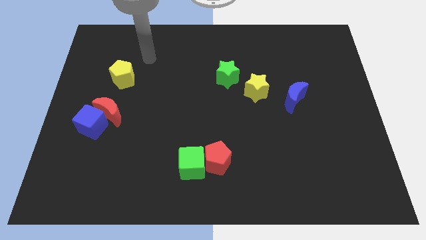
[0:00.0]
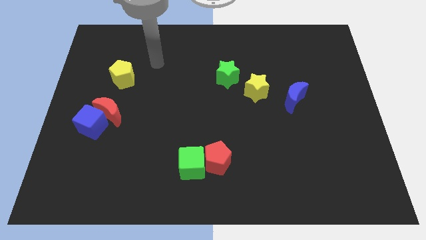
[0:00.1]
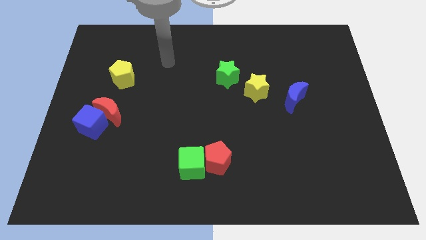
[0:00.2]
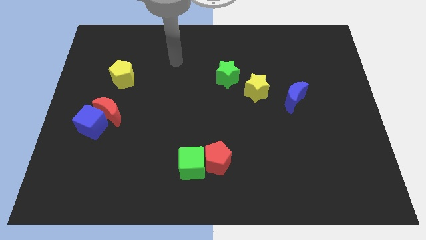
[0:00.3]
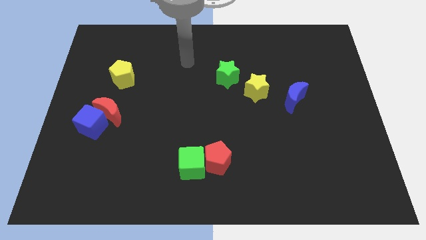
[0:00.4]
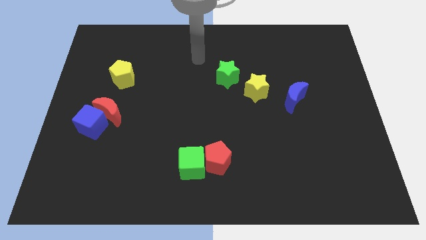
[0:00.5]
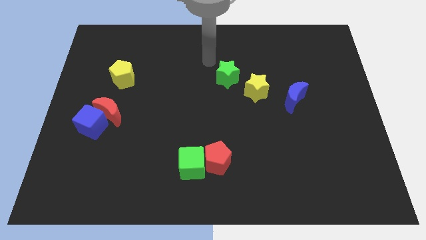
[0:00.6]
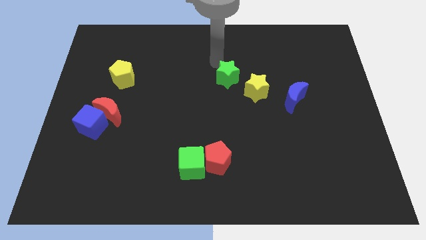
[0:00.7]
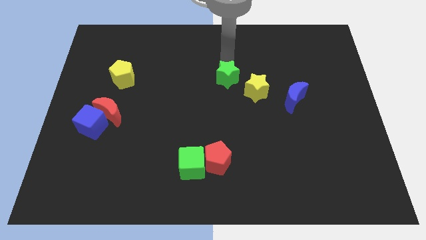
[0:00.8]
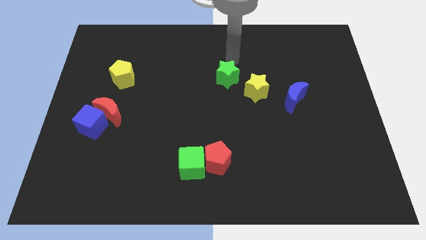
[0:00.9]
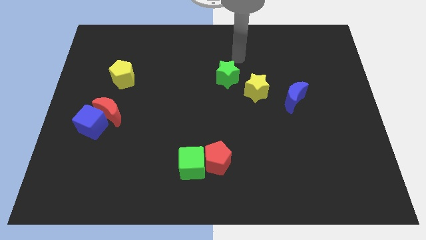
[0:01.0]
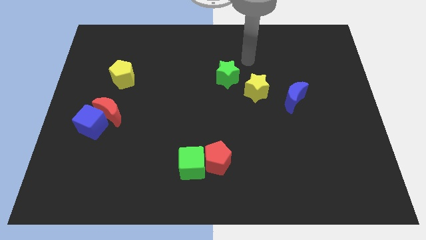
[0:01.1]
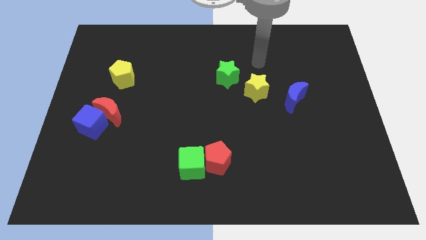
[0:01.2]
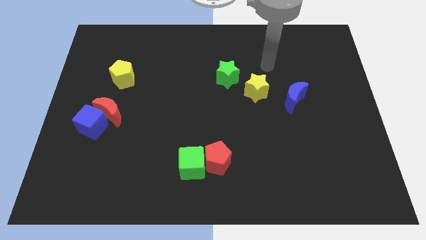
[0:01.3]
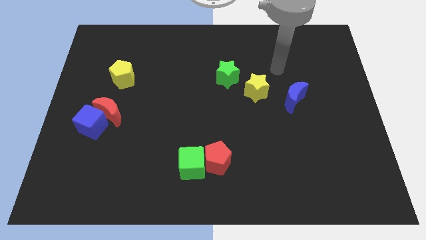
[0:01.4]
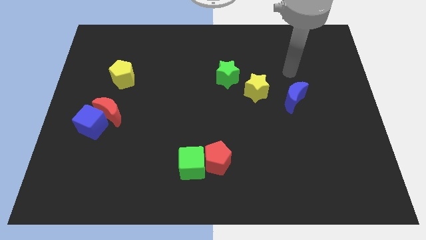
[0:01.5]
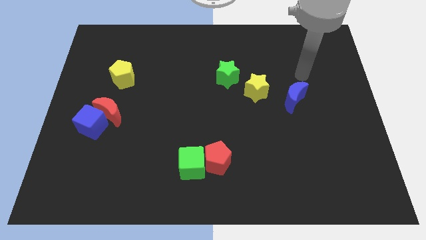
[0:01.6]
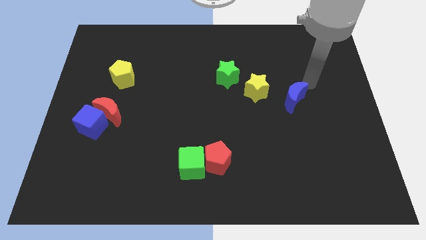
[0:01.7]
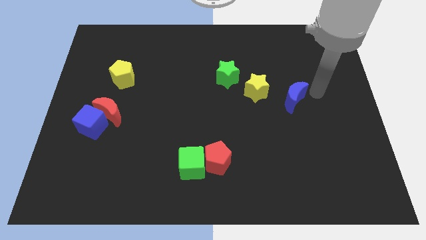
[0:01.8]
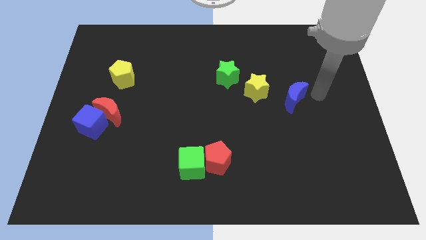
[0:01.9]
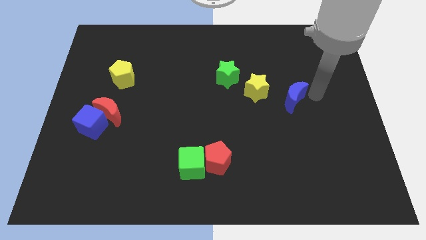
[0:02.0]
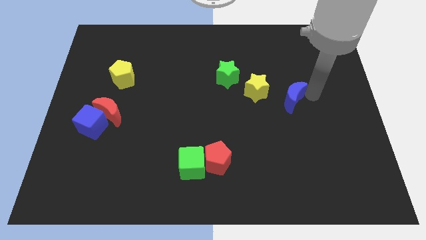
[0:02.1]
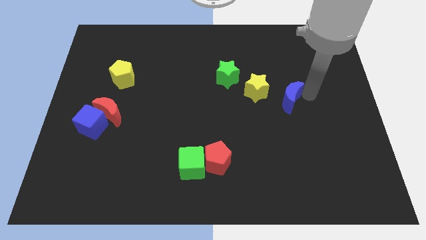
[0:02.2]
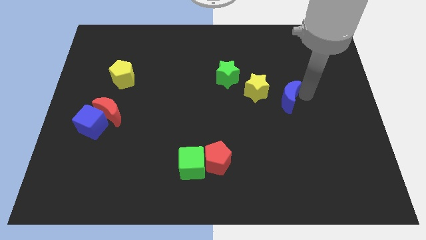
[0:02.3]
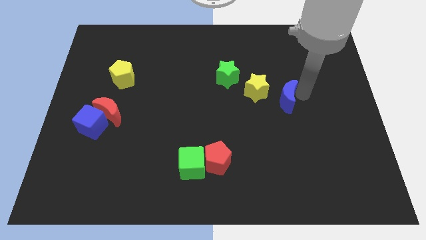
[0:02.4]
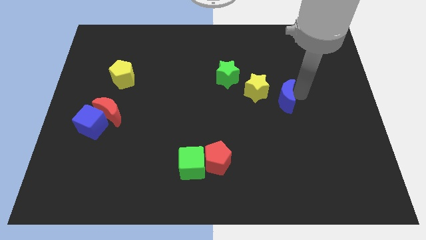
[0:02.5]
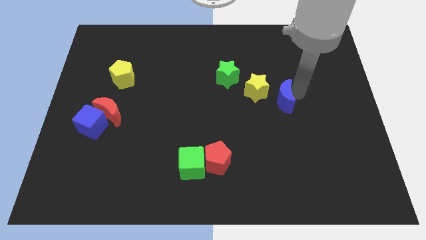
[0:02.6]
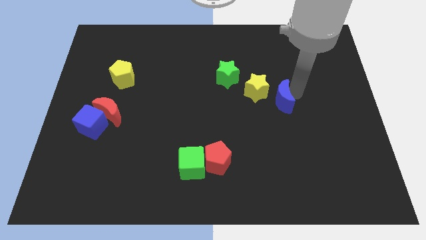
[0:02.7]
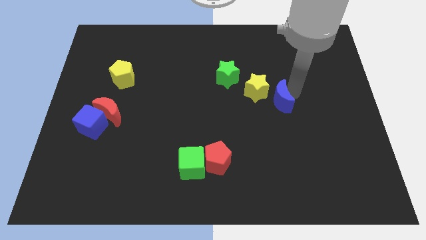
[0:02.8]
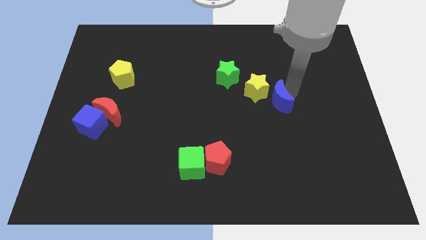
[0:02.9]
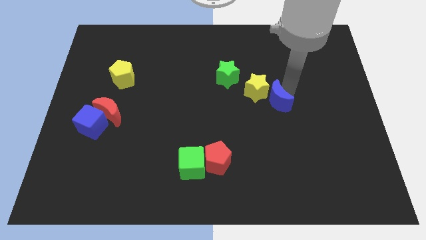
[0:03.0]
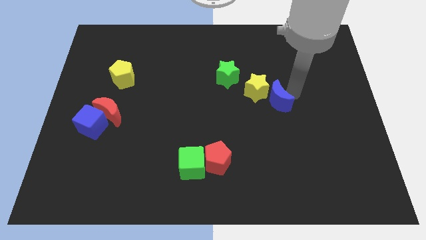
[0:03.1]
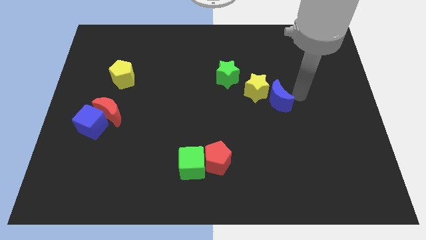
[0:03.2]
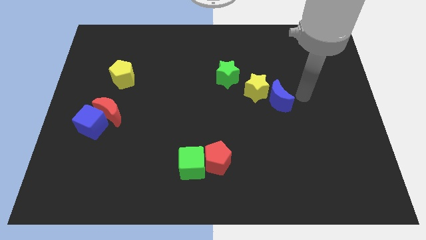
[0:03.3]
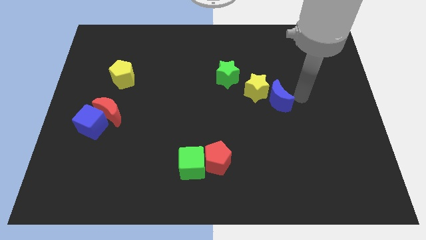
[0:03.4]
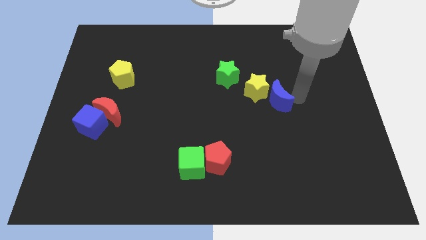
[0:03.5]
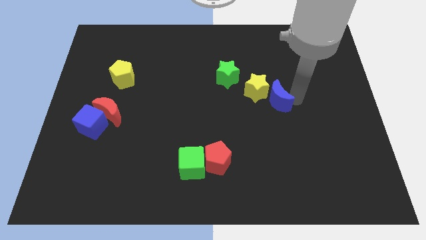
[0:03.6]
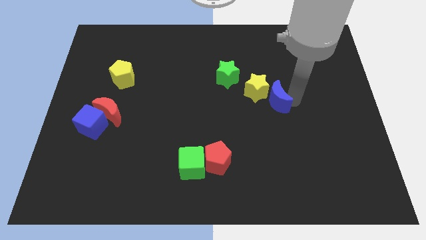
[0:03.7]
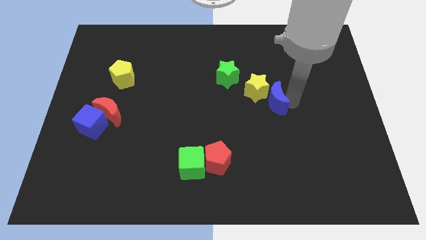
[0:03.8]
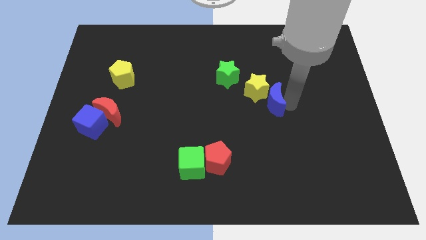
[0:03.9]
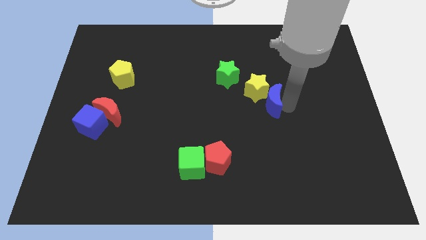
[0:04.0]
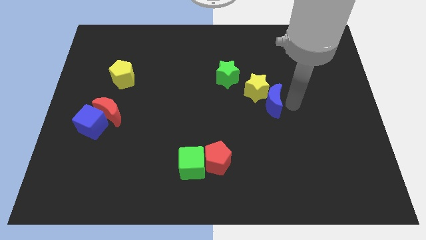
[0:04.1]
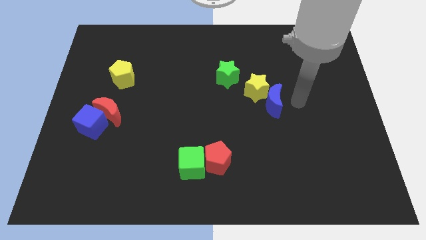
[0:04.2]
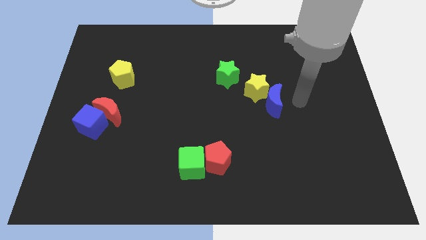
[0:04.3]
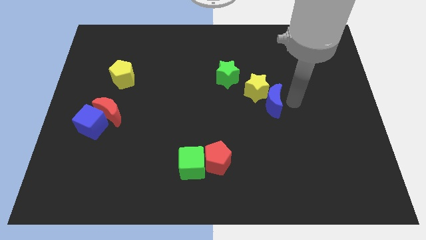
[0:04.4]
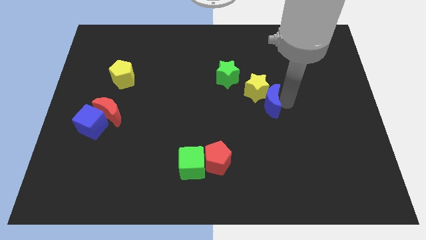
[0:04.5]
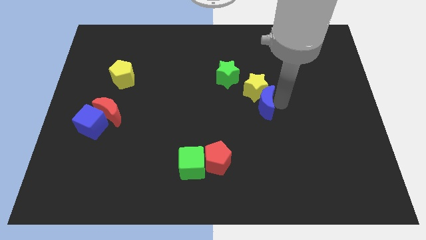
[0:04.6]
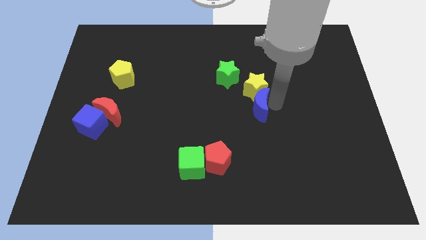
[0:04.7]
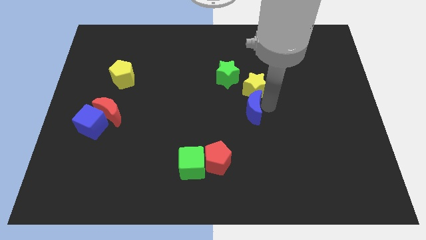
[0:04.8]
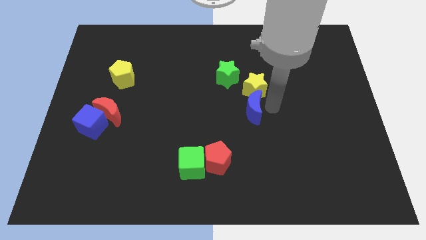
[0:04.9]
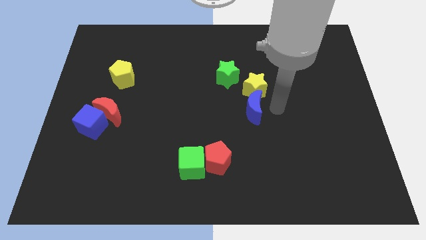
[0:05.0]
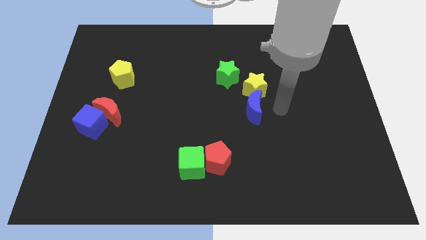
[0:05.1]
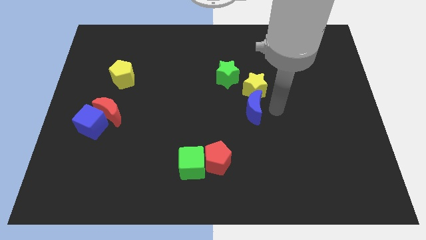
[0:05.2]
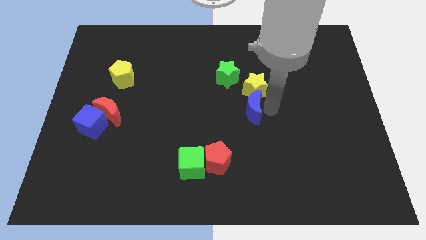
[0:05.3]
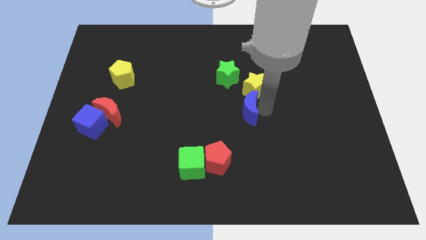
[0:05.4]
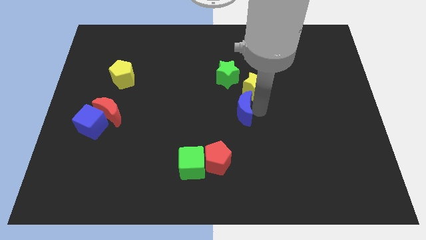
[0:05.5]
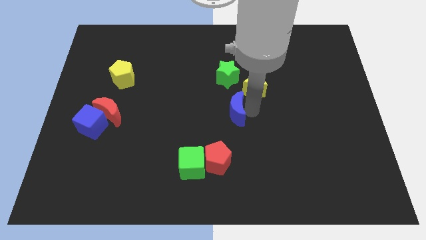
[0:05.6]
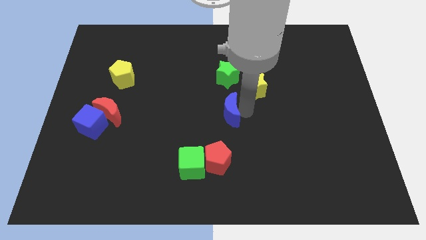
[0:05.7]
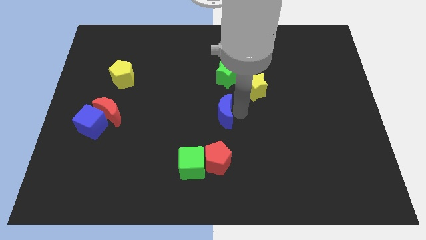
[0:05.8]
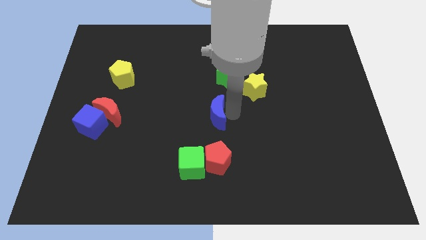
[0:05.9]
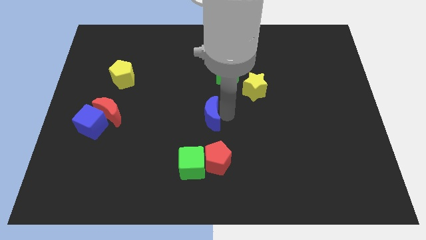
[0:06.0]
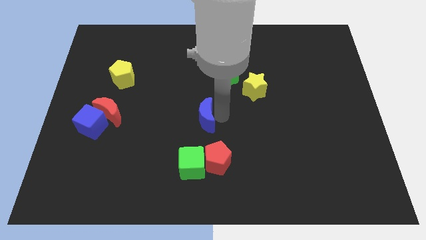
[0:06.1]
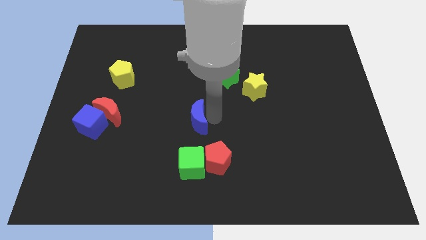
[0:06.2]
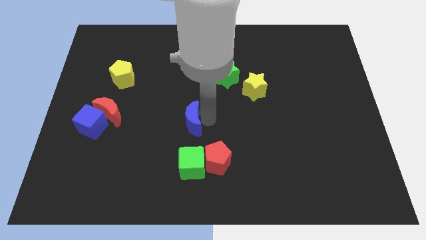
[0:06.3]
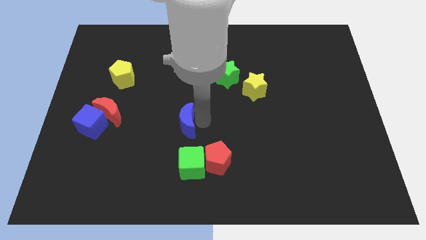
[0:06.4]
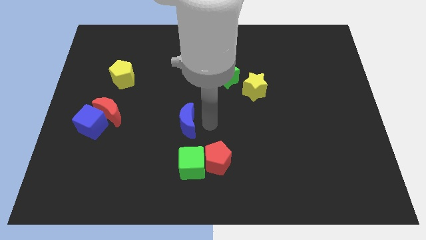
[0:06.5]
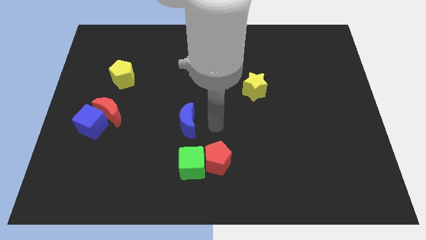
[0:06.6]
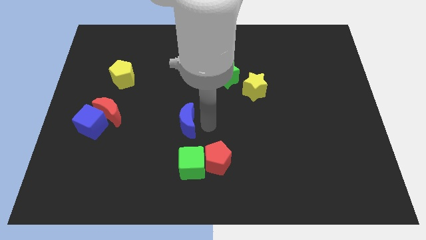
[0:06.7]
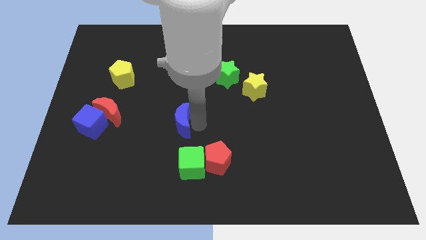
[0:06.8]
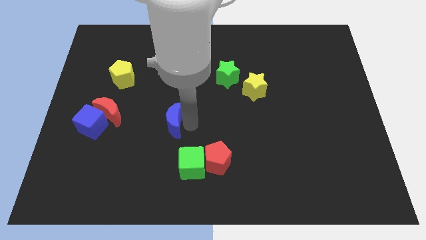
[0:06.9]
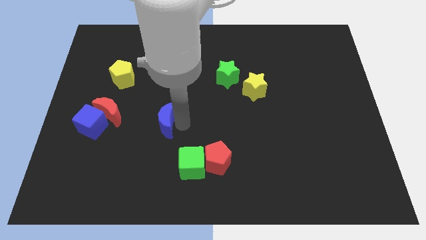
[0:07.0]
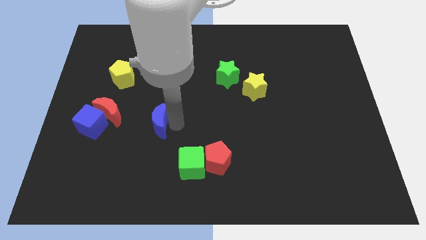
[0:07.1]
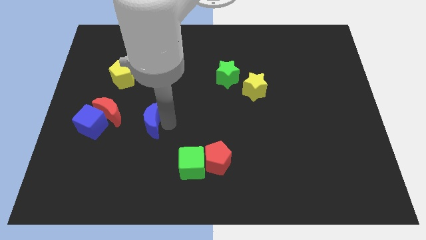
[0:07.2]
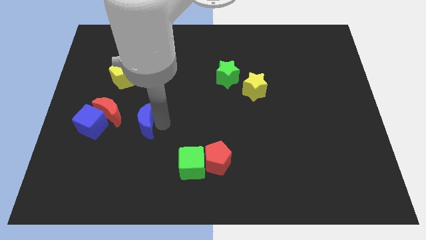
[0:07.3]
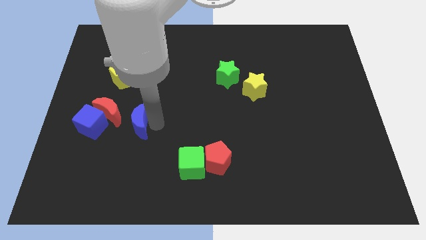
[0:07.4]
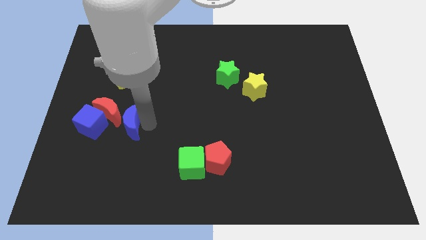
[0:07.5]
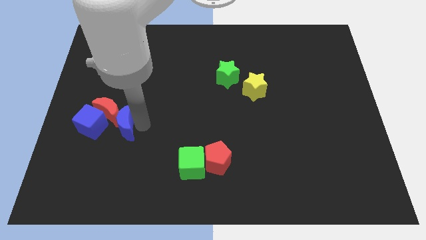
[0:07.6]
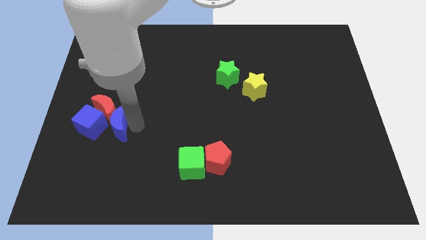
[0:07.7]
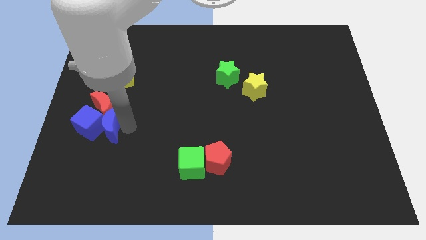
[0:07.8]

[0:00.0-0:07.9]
put the blue moon next to the blue cube
